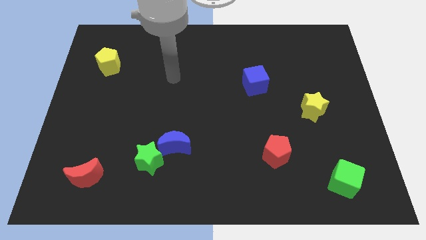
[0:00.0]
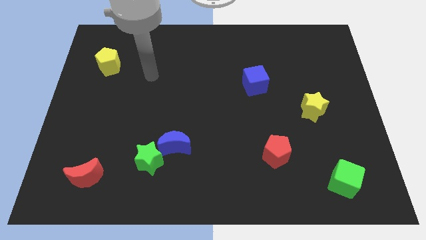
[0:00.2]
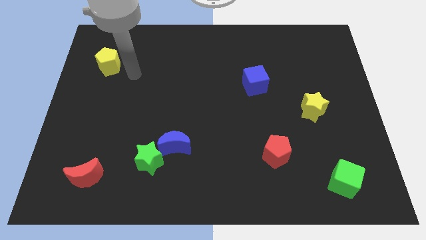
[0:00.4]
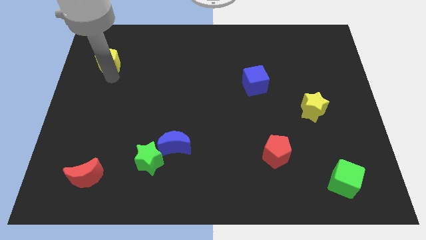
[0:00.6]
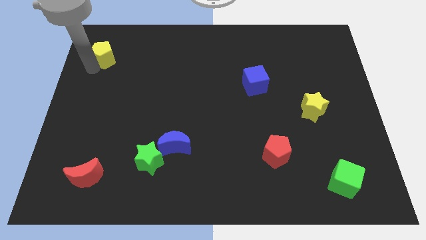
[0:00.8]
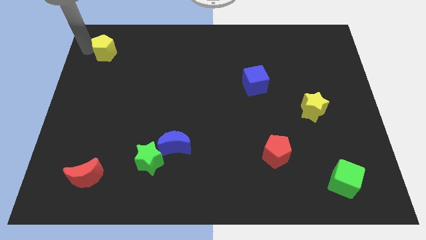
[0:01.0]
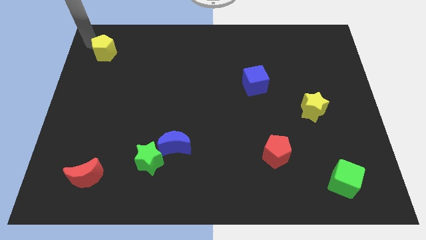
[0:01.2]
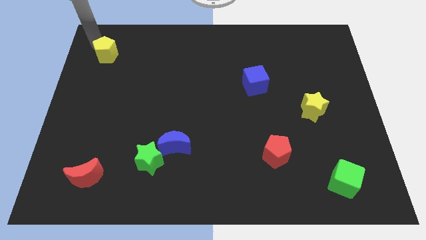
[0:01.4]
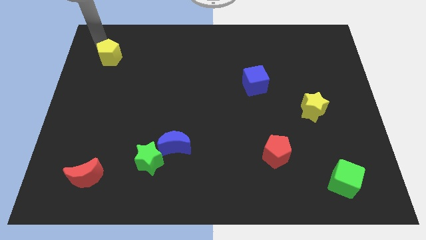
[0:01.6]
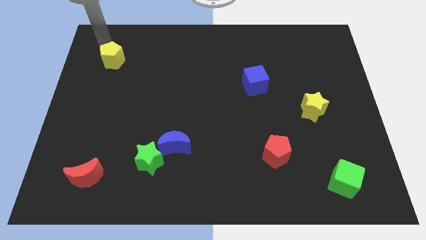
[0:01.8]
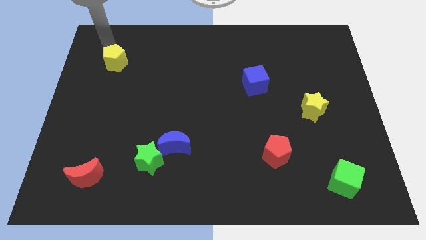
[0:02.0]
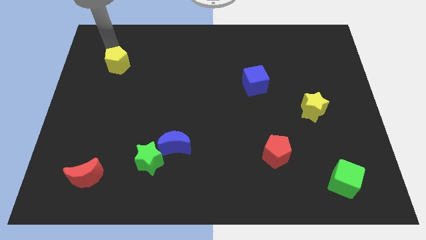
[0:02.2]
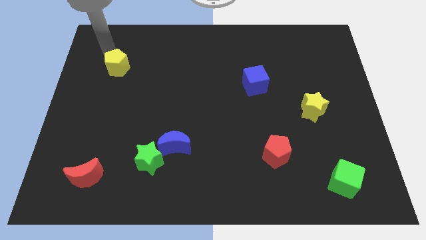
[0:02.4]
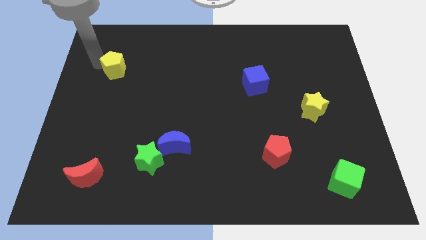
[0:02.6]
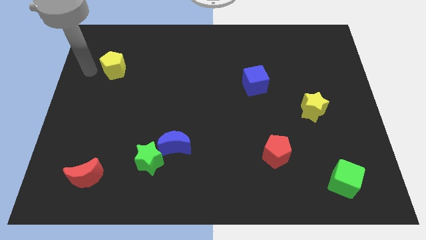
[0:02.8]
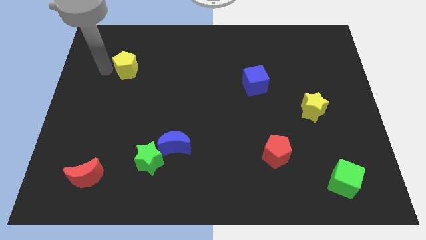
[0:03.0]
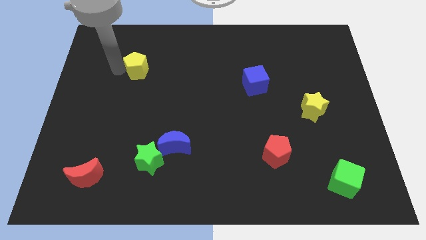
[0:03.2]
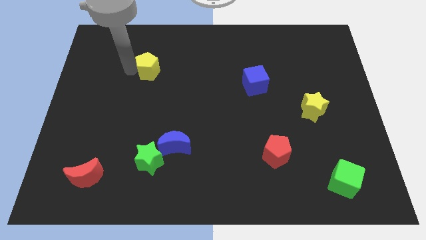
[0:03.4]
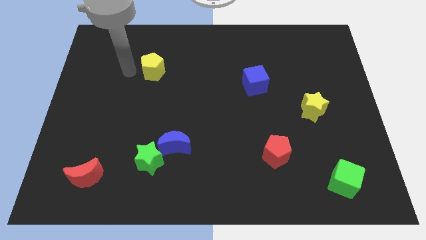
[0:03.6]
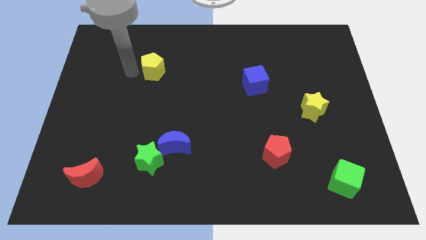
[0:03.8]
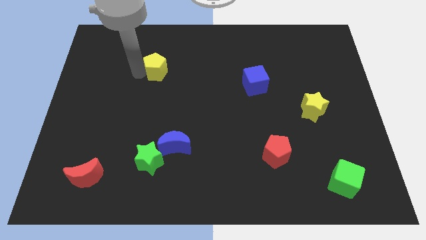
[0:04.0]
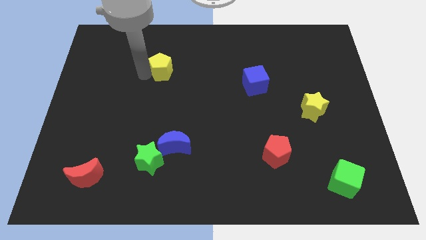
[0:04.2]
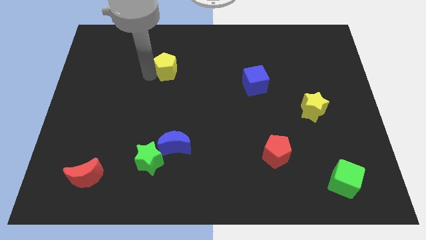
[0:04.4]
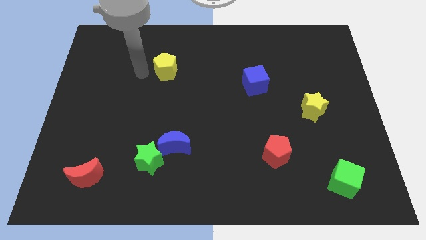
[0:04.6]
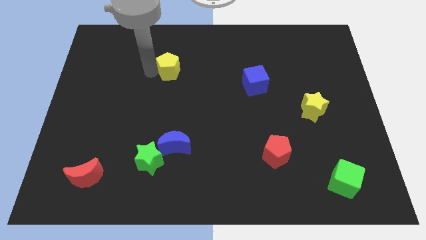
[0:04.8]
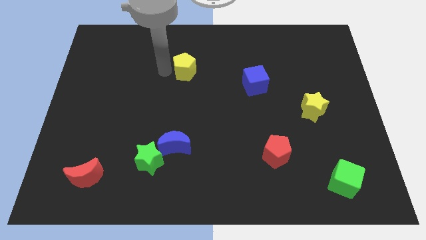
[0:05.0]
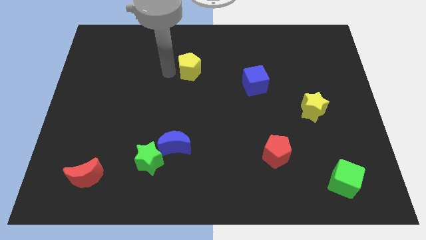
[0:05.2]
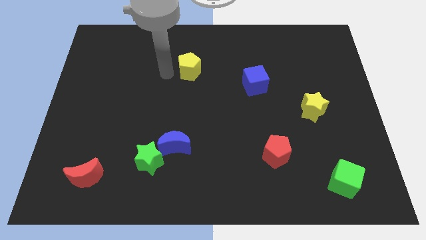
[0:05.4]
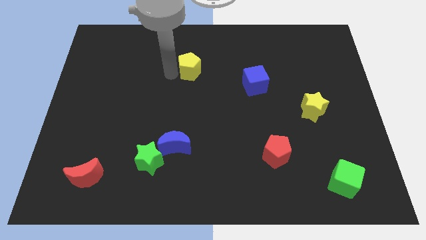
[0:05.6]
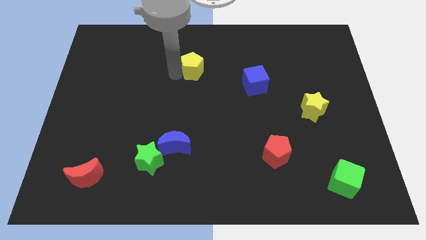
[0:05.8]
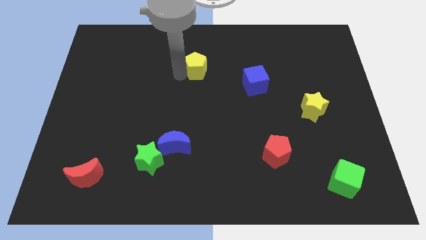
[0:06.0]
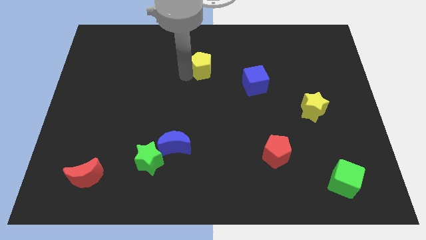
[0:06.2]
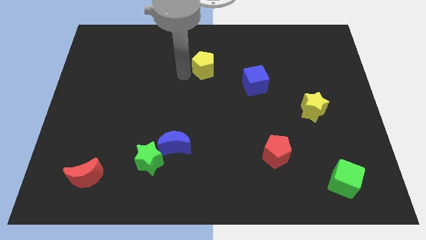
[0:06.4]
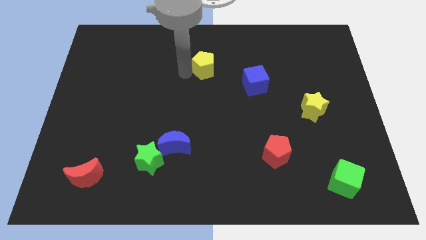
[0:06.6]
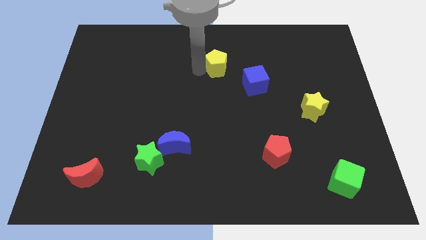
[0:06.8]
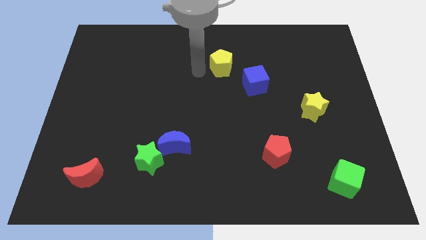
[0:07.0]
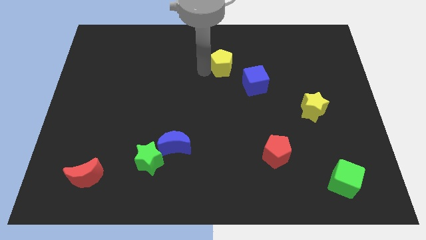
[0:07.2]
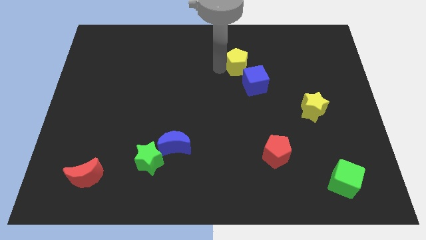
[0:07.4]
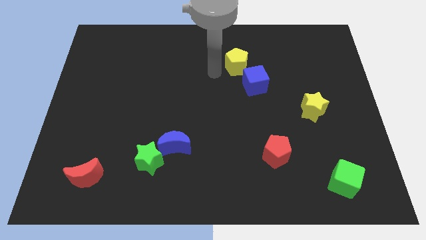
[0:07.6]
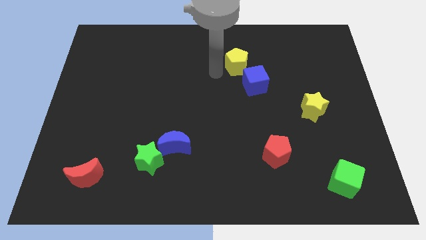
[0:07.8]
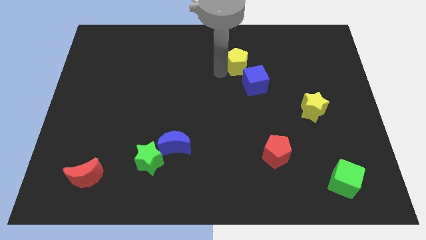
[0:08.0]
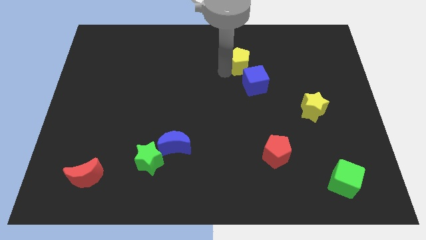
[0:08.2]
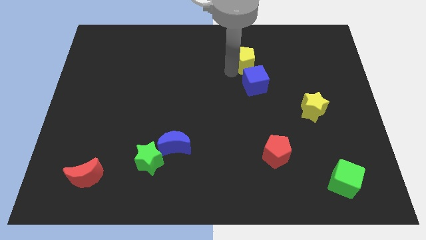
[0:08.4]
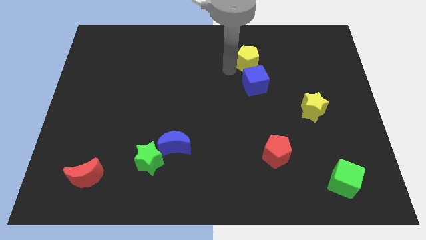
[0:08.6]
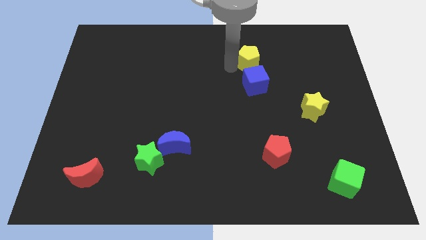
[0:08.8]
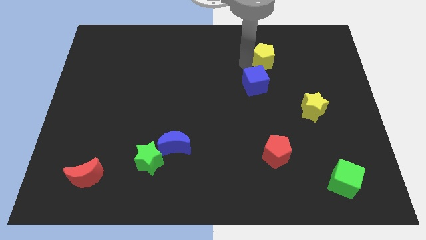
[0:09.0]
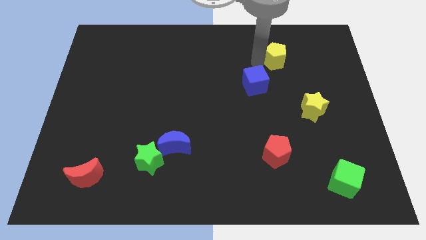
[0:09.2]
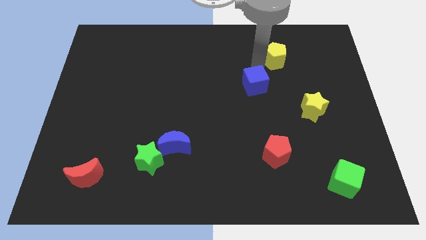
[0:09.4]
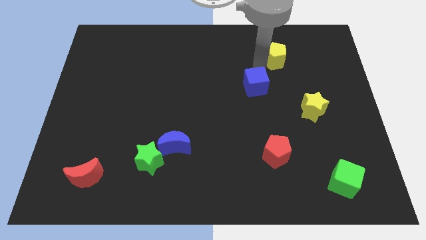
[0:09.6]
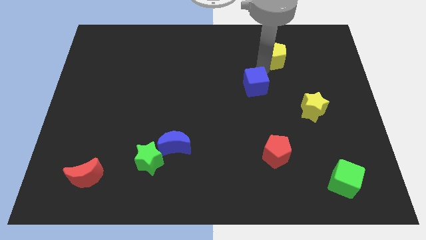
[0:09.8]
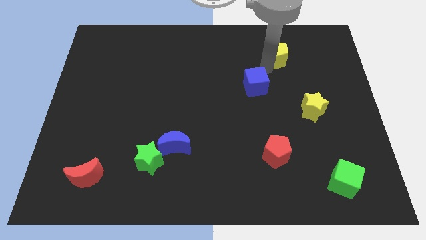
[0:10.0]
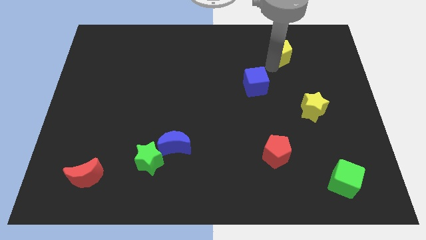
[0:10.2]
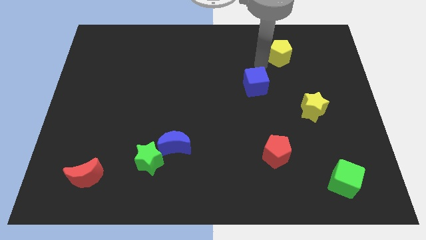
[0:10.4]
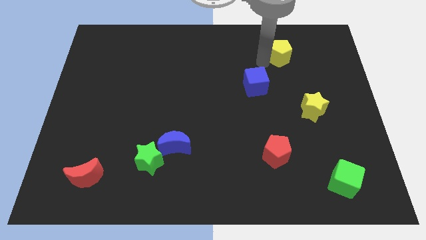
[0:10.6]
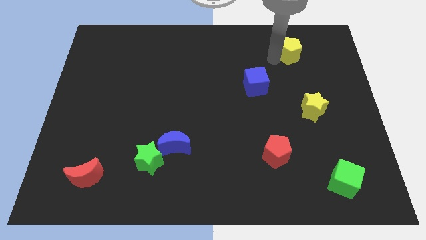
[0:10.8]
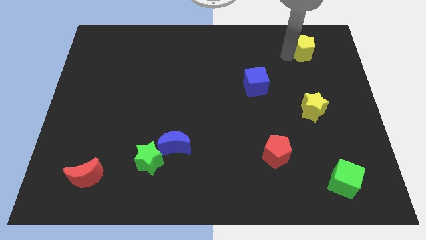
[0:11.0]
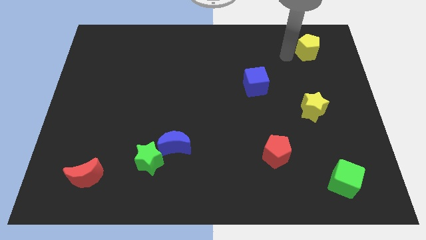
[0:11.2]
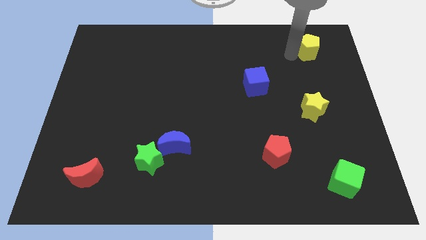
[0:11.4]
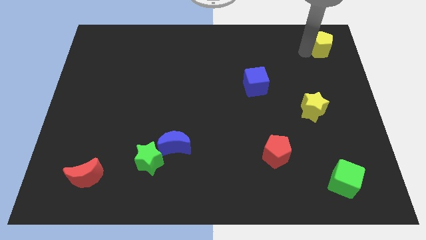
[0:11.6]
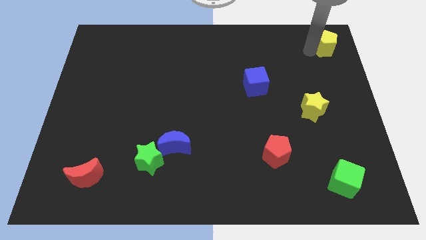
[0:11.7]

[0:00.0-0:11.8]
slide the yellow pentagon to the top right corner

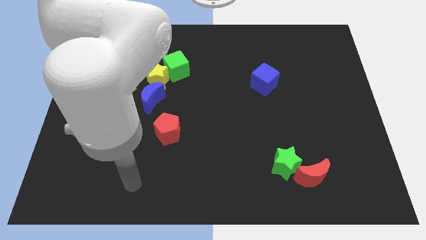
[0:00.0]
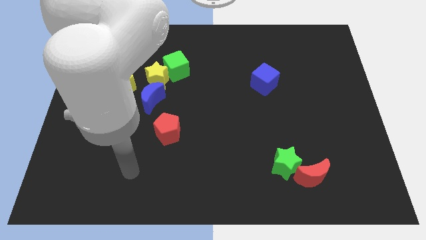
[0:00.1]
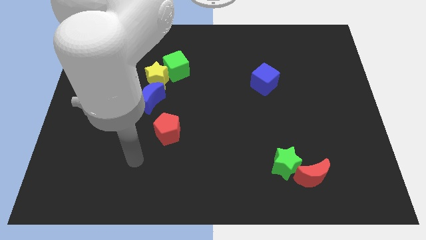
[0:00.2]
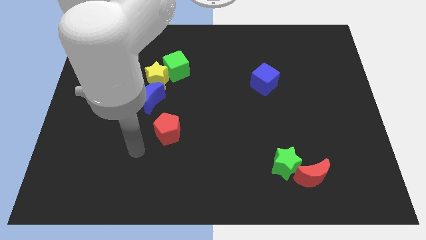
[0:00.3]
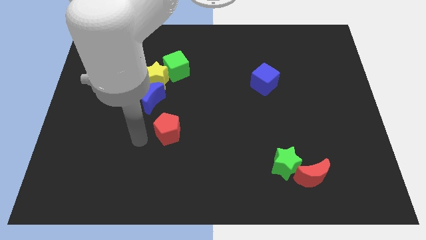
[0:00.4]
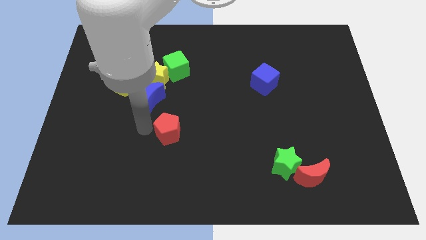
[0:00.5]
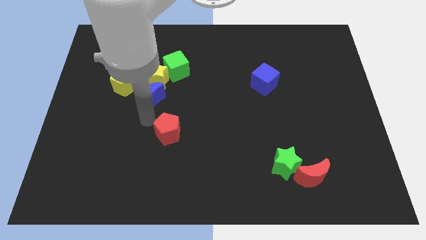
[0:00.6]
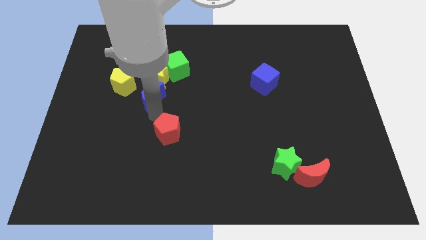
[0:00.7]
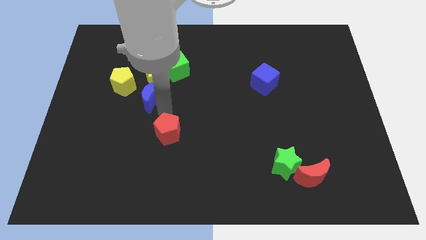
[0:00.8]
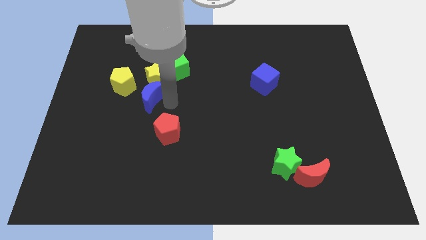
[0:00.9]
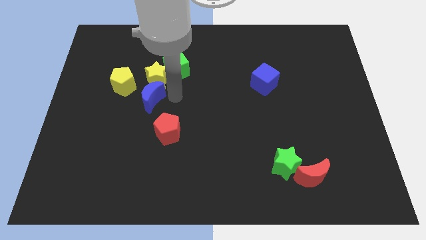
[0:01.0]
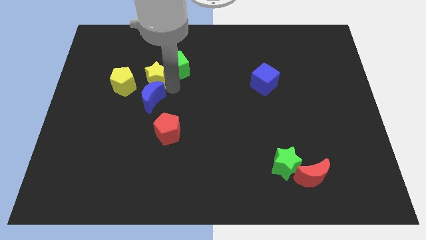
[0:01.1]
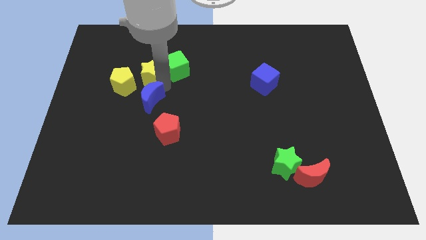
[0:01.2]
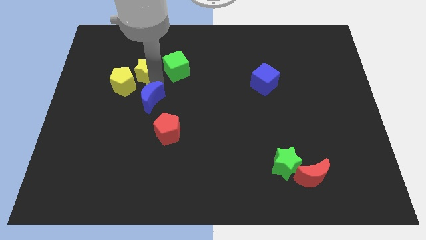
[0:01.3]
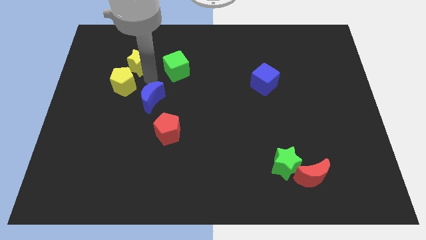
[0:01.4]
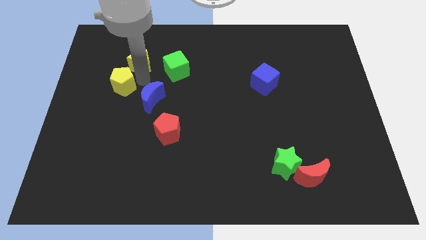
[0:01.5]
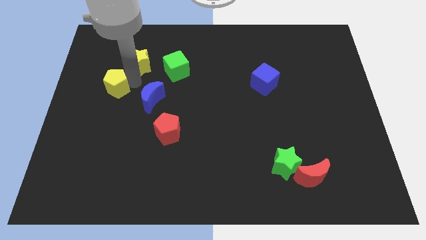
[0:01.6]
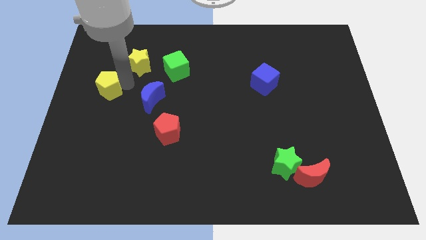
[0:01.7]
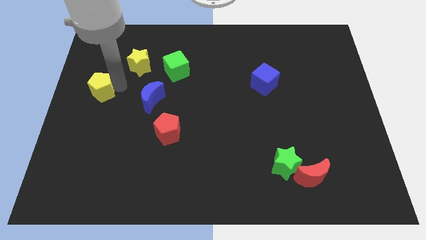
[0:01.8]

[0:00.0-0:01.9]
put the yellow pentagon to the left side
